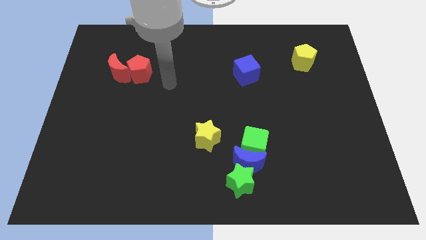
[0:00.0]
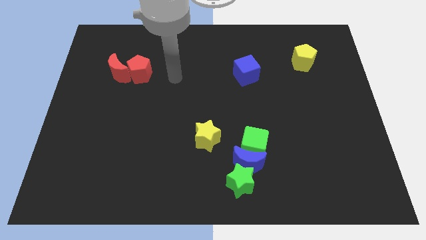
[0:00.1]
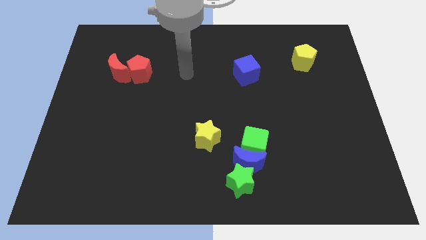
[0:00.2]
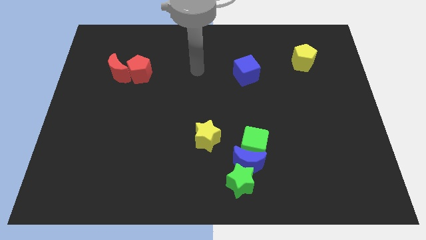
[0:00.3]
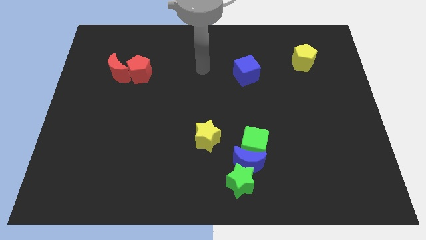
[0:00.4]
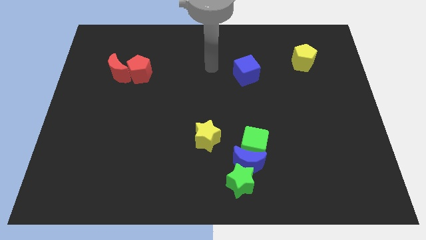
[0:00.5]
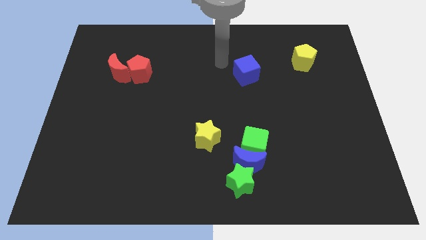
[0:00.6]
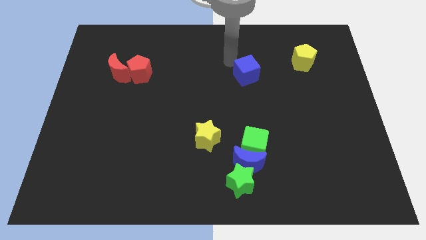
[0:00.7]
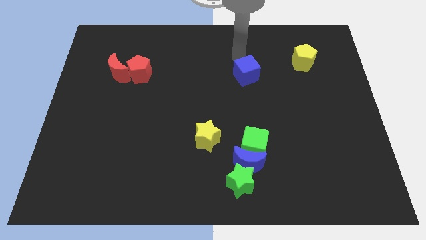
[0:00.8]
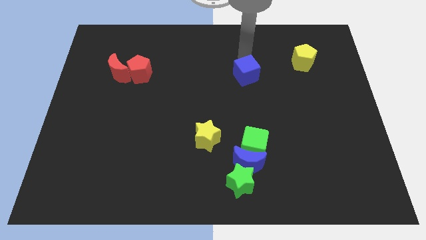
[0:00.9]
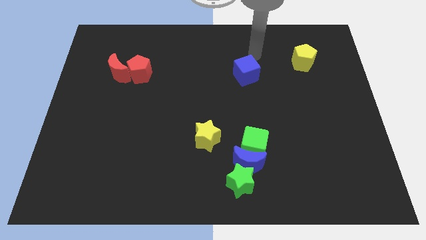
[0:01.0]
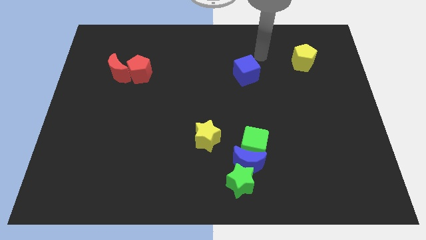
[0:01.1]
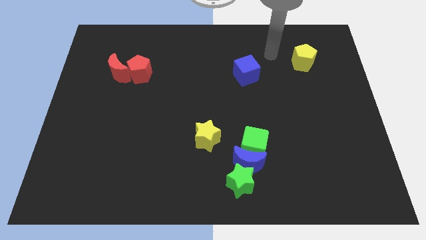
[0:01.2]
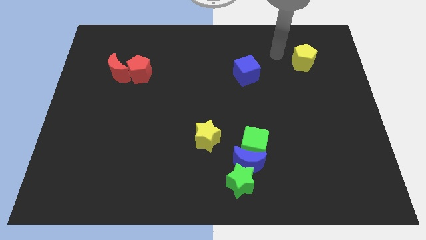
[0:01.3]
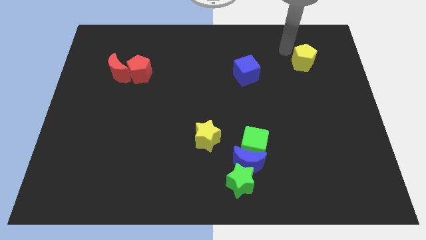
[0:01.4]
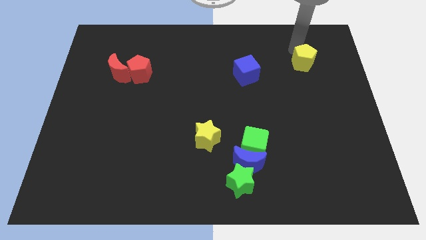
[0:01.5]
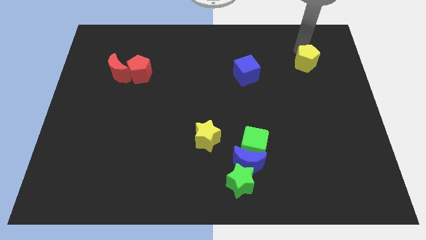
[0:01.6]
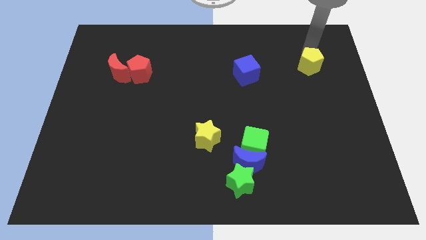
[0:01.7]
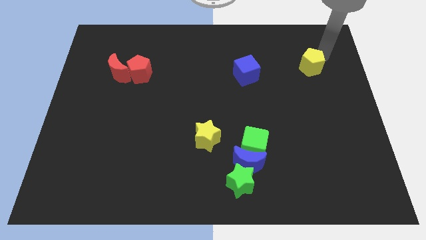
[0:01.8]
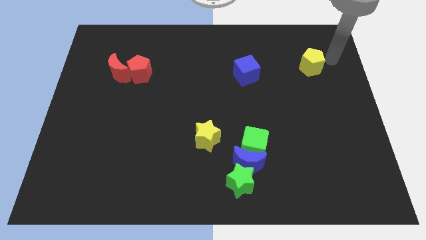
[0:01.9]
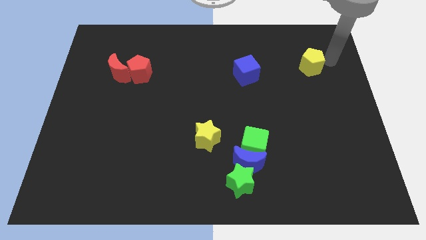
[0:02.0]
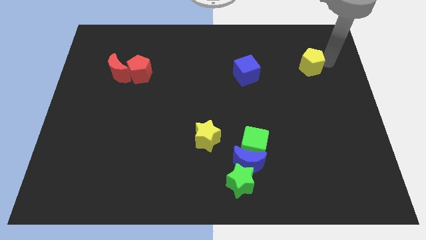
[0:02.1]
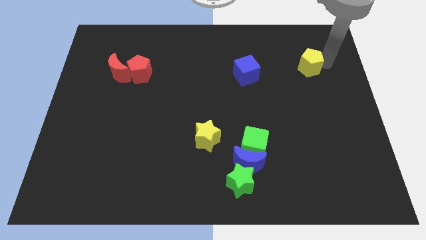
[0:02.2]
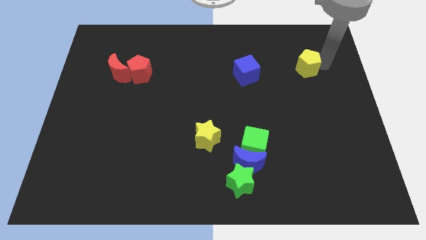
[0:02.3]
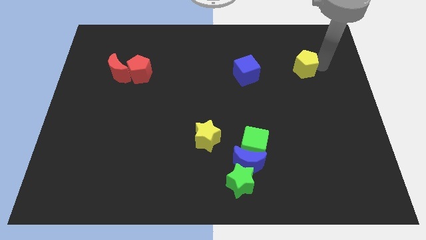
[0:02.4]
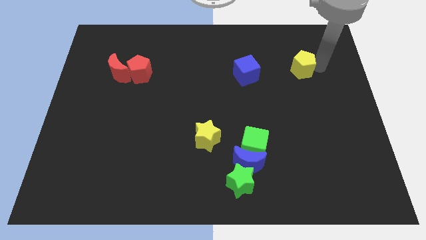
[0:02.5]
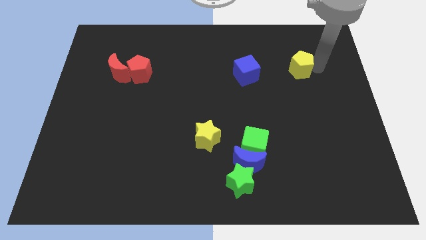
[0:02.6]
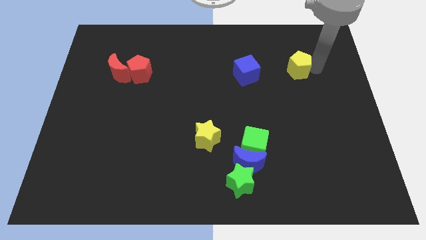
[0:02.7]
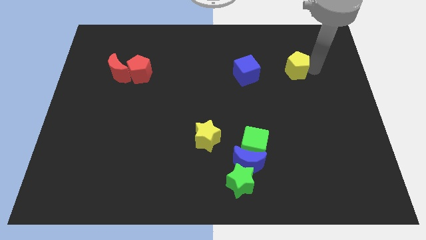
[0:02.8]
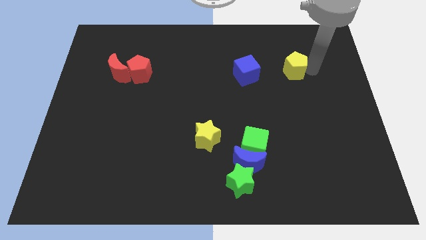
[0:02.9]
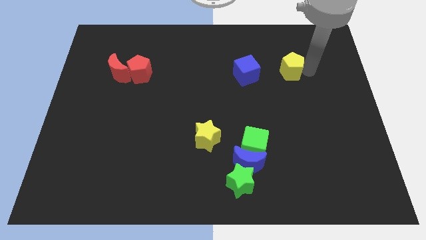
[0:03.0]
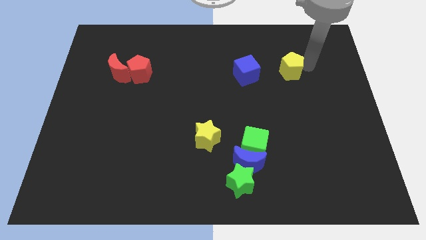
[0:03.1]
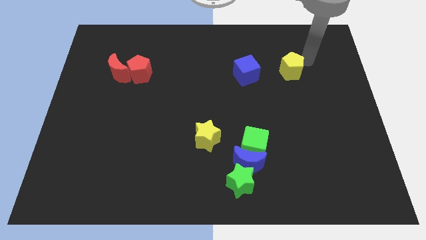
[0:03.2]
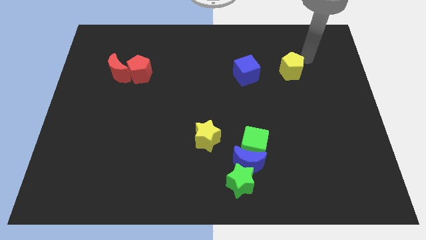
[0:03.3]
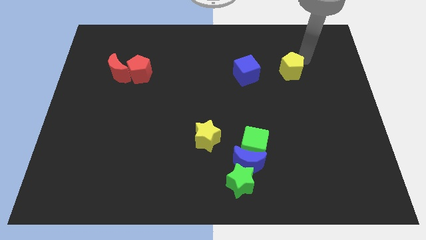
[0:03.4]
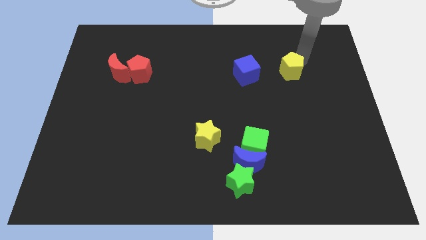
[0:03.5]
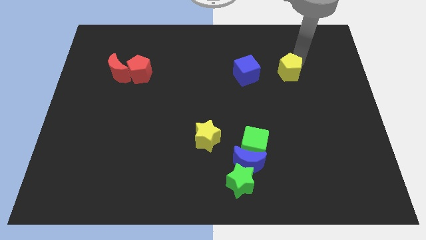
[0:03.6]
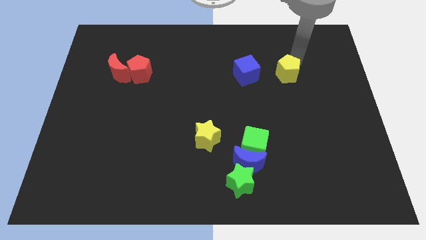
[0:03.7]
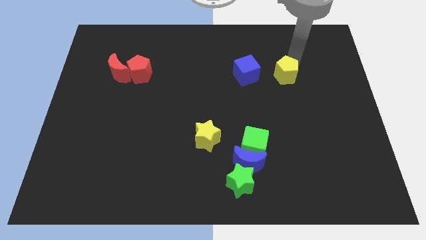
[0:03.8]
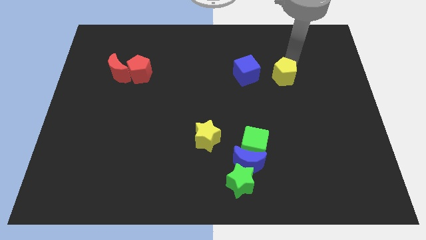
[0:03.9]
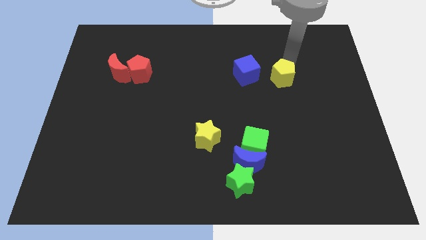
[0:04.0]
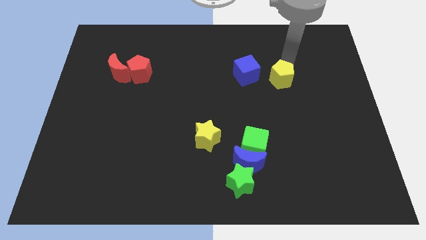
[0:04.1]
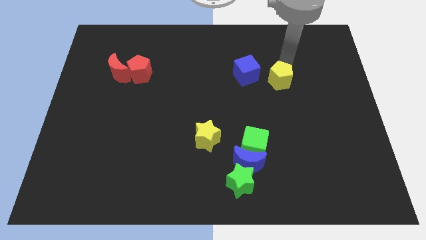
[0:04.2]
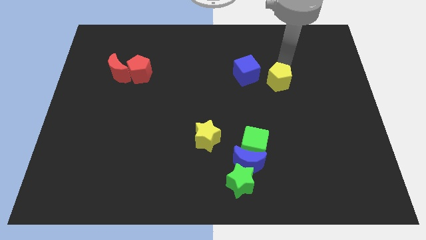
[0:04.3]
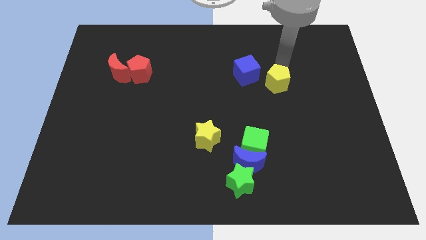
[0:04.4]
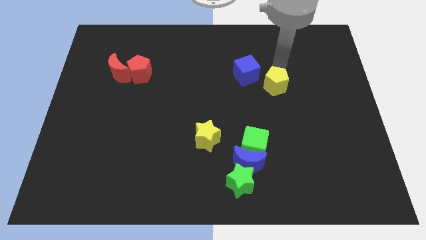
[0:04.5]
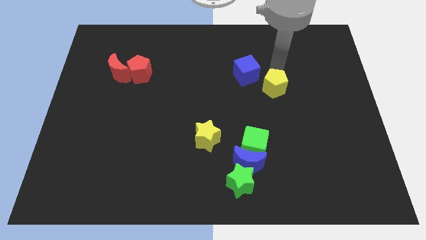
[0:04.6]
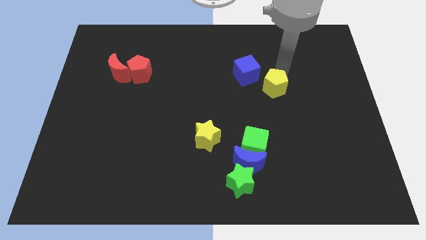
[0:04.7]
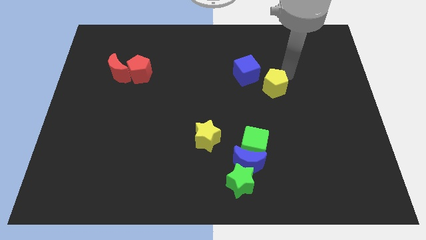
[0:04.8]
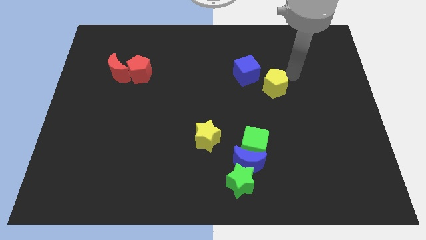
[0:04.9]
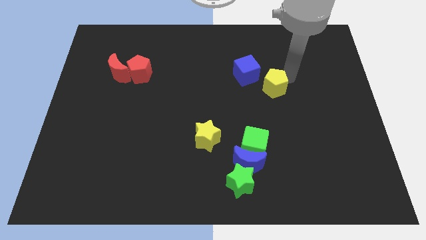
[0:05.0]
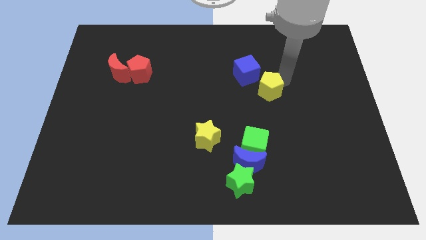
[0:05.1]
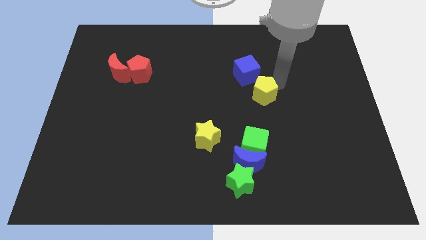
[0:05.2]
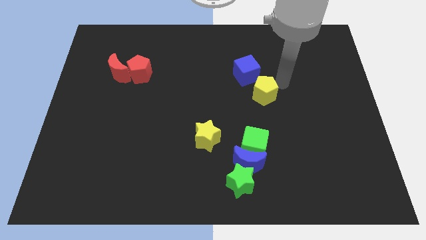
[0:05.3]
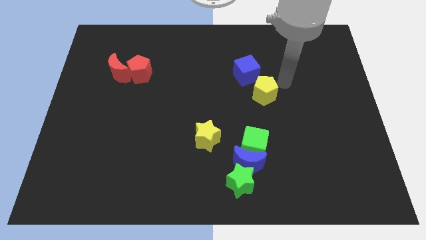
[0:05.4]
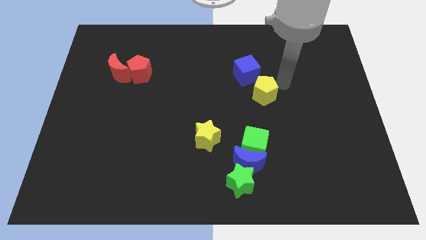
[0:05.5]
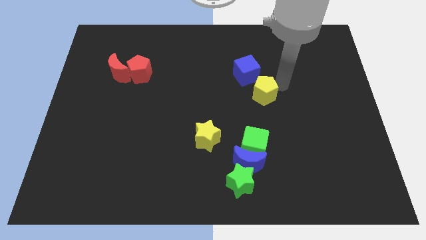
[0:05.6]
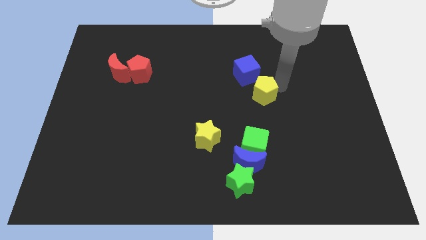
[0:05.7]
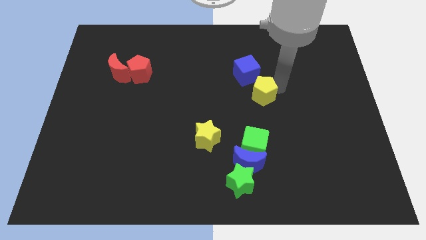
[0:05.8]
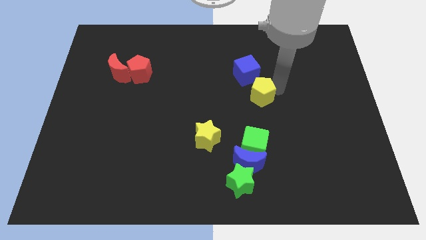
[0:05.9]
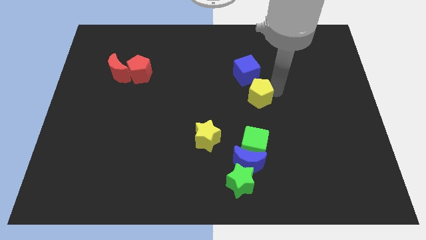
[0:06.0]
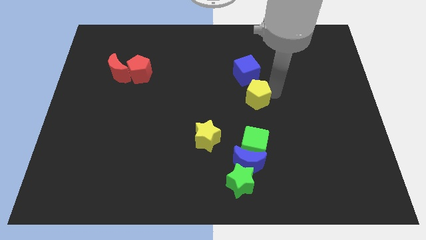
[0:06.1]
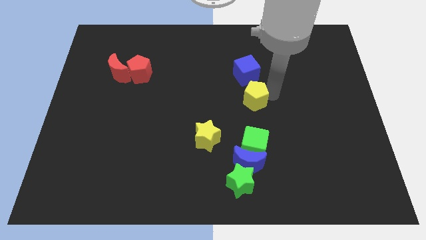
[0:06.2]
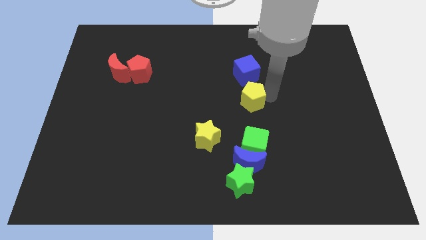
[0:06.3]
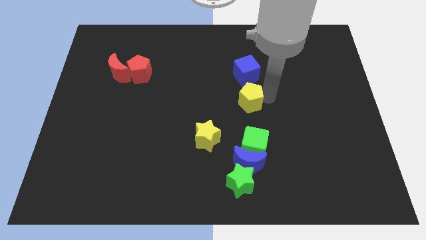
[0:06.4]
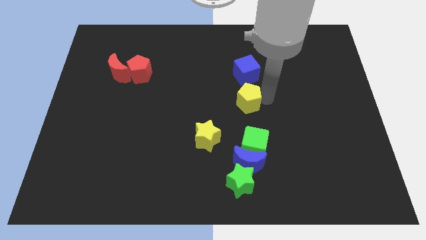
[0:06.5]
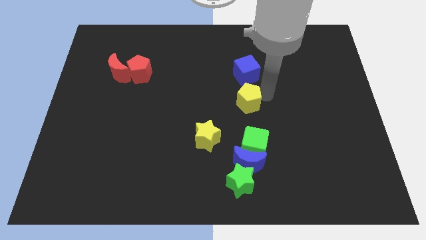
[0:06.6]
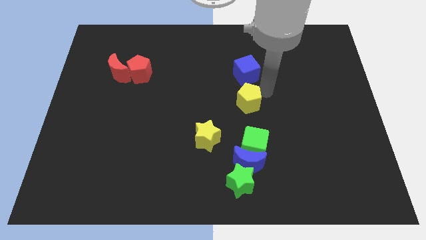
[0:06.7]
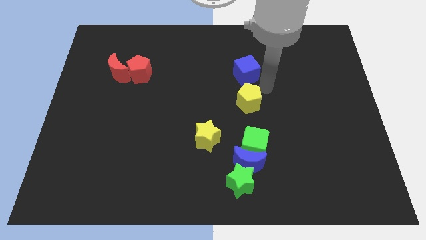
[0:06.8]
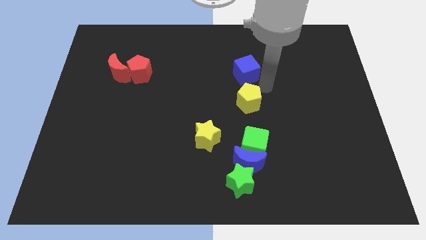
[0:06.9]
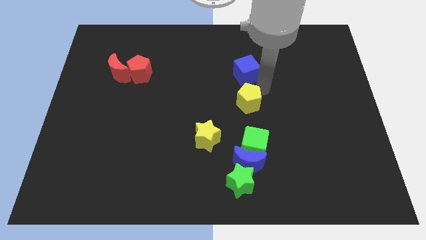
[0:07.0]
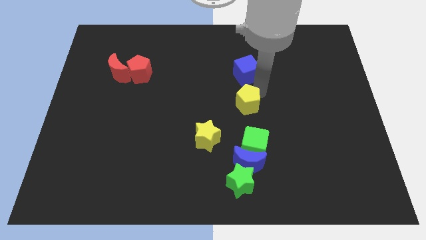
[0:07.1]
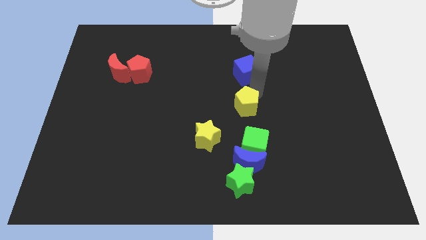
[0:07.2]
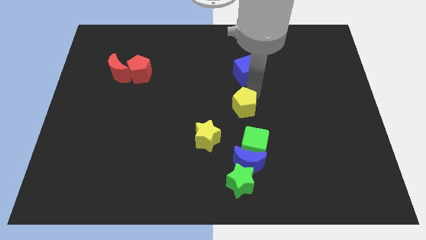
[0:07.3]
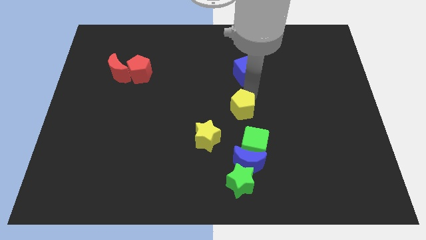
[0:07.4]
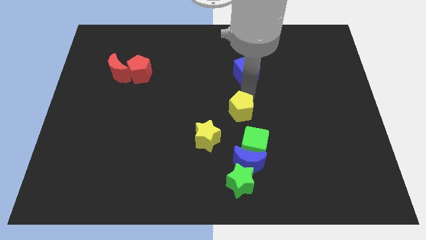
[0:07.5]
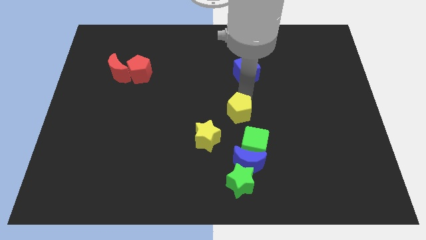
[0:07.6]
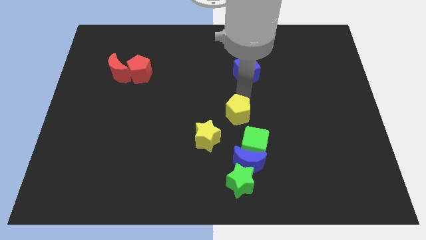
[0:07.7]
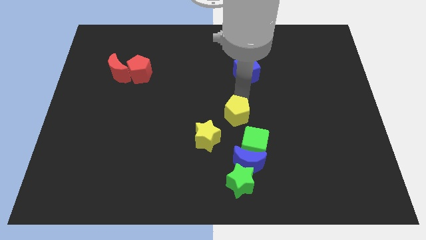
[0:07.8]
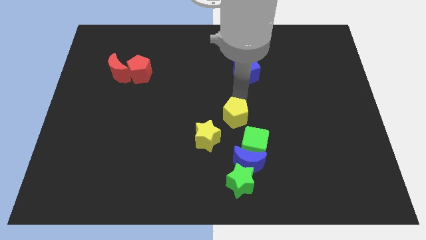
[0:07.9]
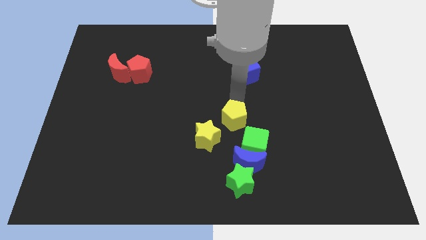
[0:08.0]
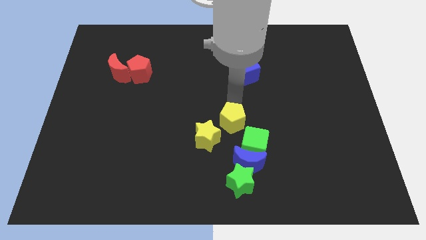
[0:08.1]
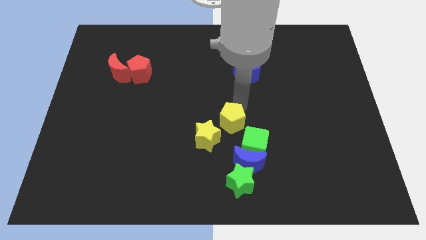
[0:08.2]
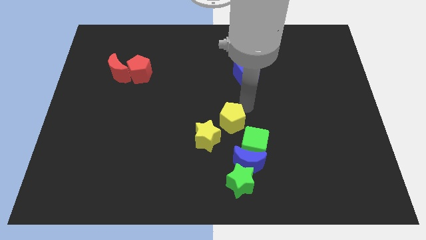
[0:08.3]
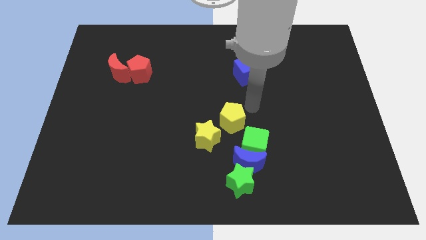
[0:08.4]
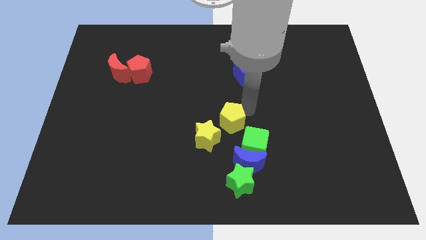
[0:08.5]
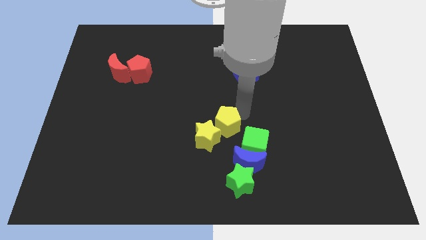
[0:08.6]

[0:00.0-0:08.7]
move the yellow pentagon to the yellow star
